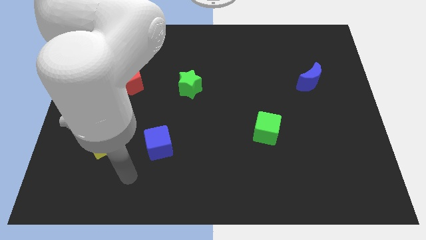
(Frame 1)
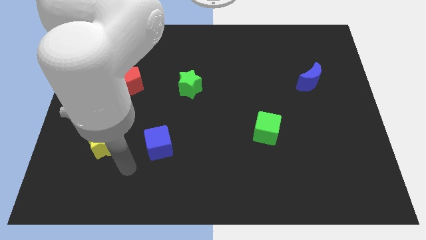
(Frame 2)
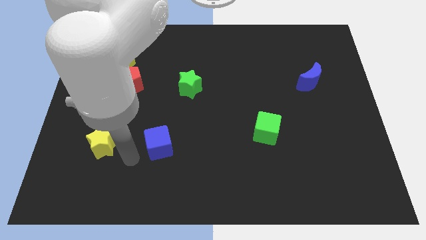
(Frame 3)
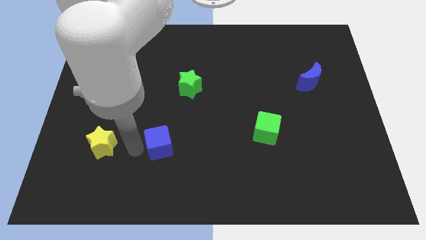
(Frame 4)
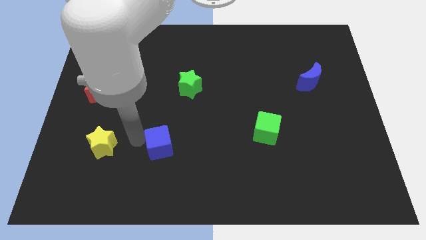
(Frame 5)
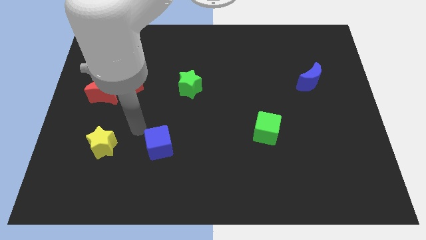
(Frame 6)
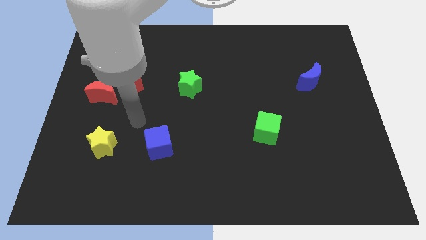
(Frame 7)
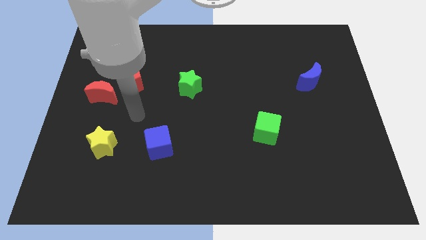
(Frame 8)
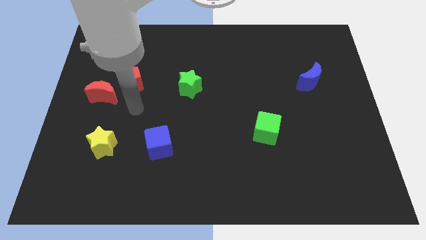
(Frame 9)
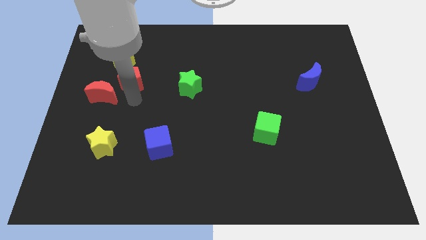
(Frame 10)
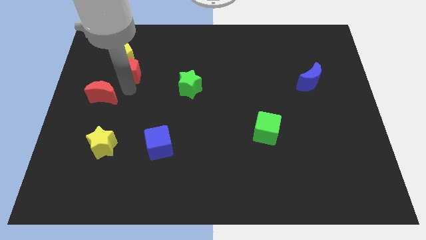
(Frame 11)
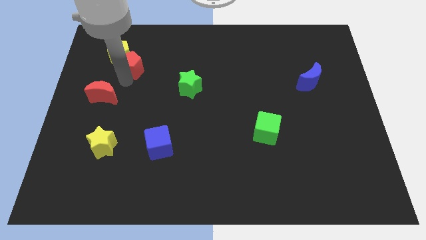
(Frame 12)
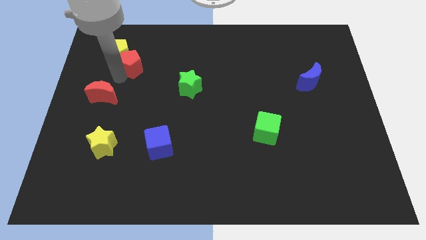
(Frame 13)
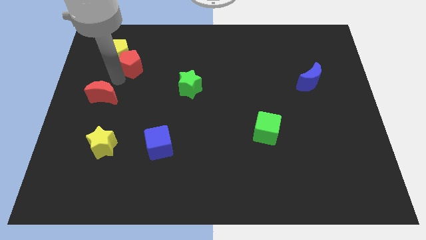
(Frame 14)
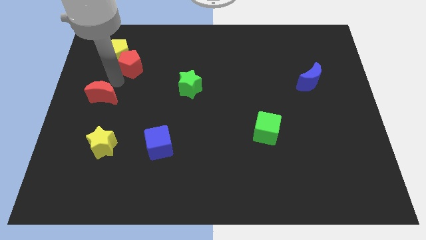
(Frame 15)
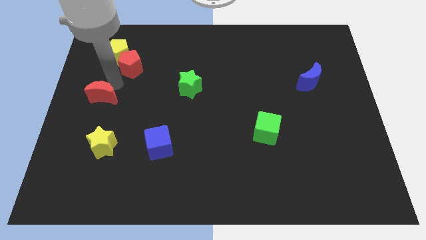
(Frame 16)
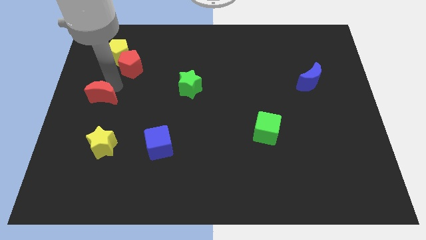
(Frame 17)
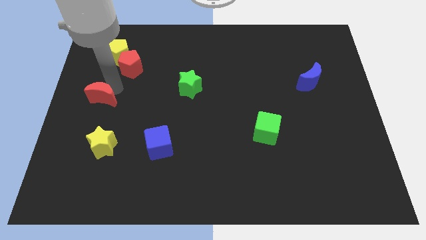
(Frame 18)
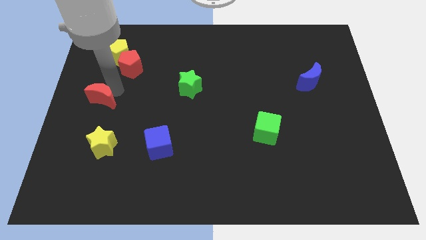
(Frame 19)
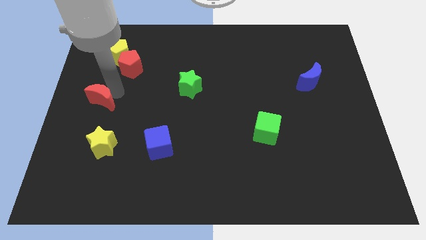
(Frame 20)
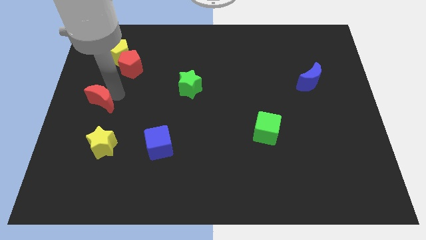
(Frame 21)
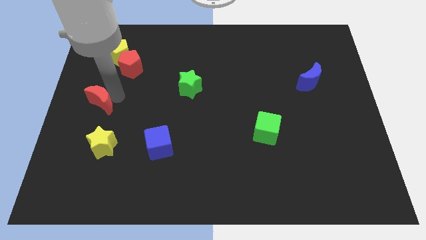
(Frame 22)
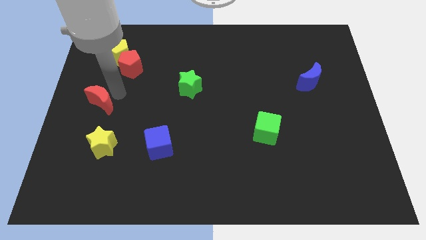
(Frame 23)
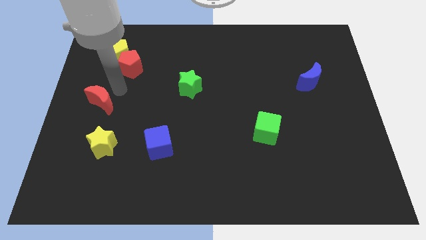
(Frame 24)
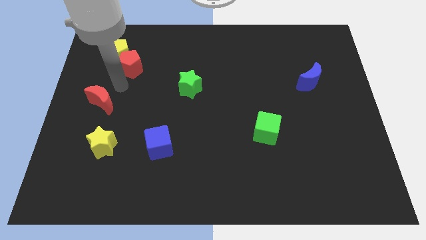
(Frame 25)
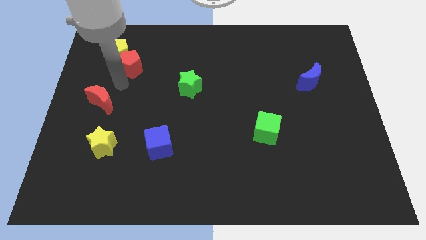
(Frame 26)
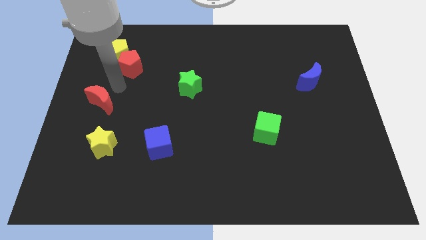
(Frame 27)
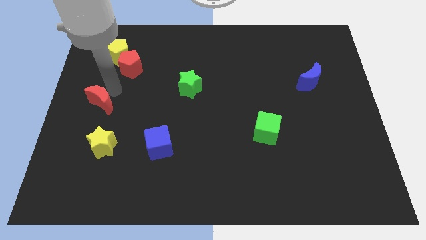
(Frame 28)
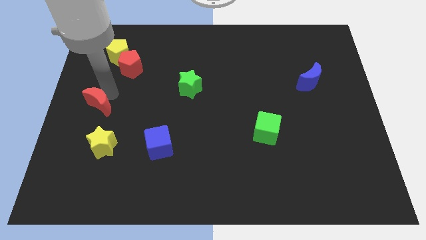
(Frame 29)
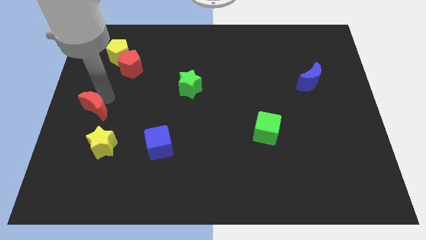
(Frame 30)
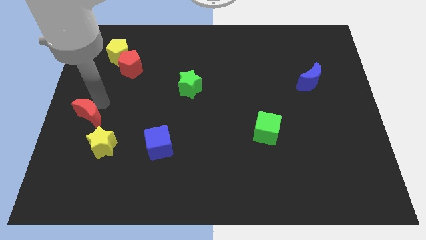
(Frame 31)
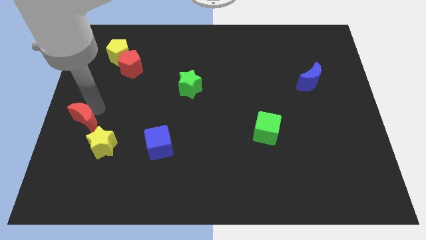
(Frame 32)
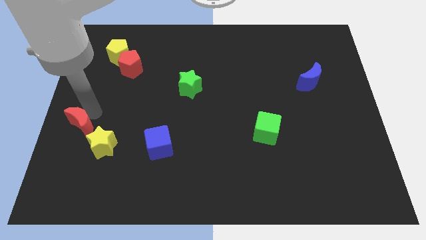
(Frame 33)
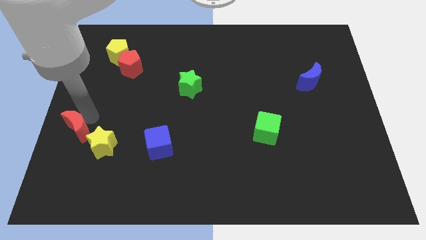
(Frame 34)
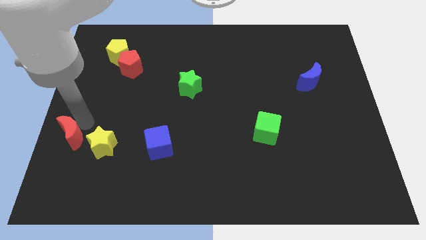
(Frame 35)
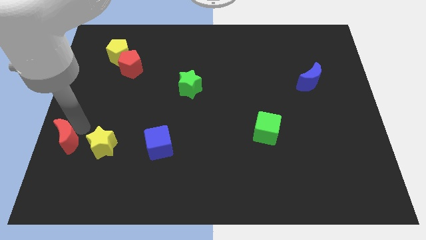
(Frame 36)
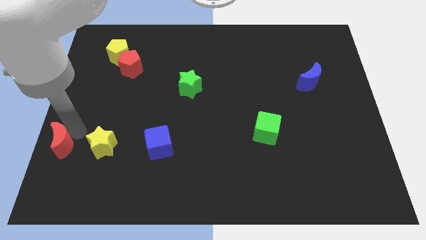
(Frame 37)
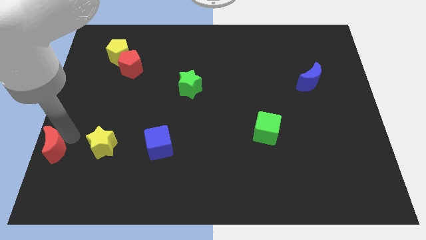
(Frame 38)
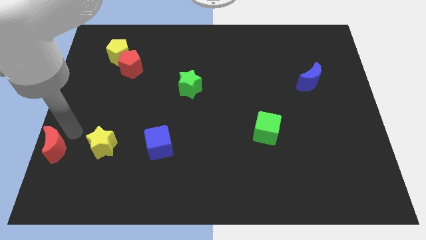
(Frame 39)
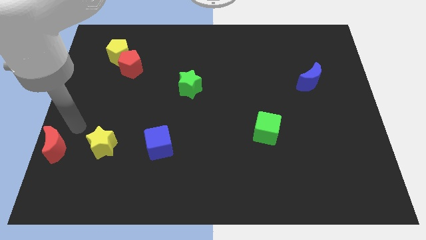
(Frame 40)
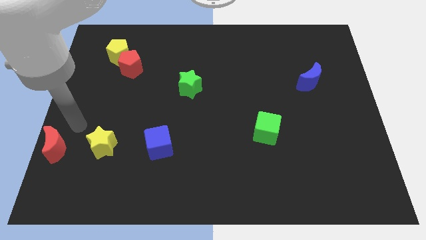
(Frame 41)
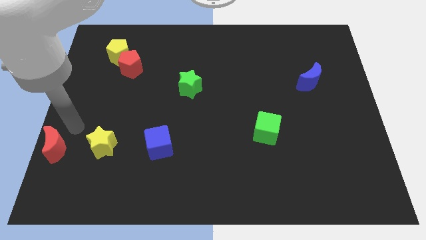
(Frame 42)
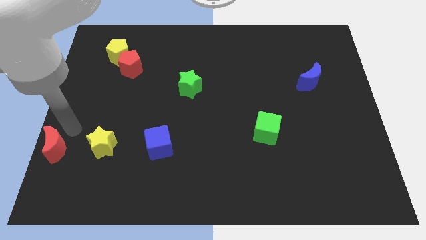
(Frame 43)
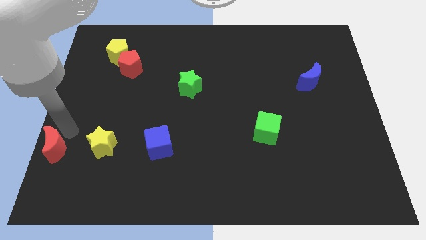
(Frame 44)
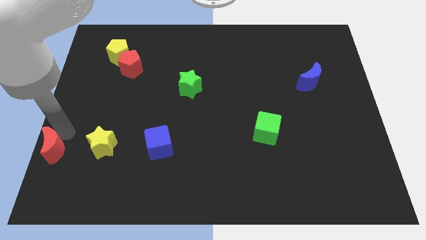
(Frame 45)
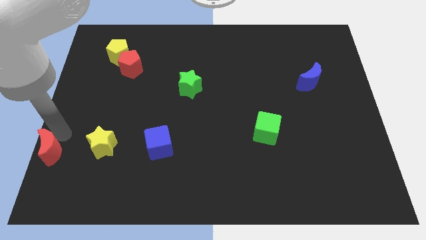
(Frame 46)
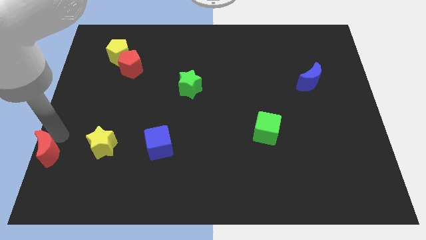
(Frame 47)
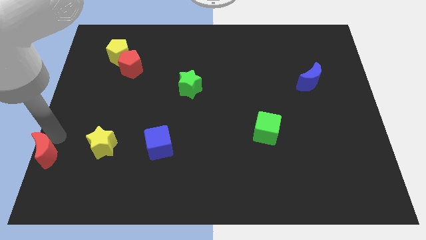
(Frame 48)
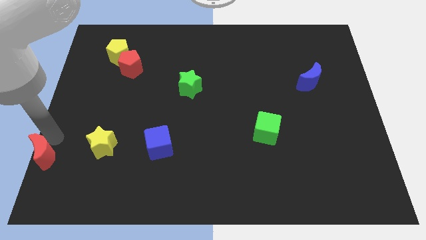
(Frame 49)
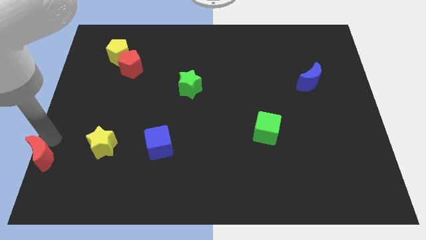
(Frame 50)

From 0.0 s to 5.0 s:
push the red moon to the bottom left corner
